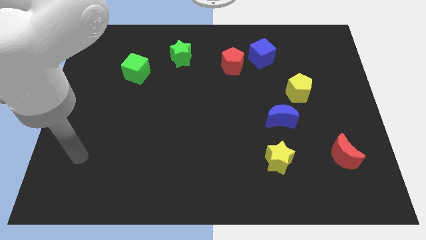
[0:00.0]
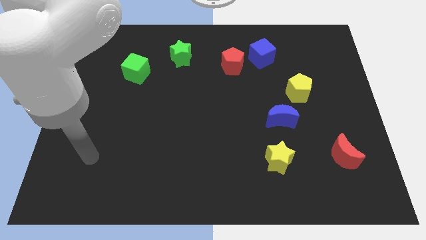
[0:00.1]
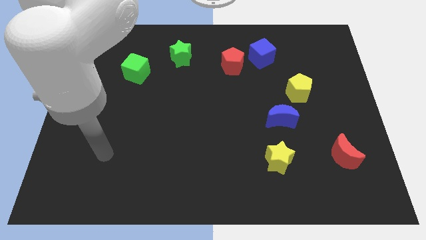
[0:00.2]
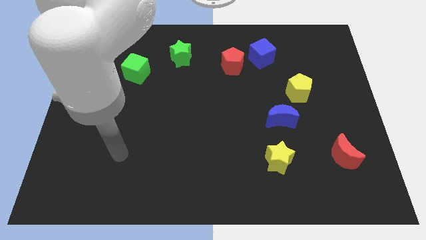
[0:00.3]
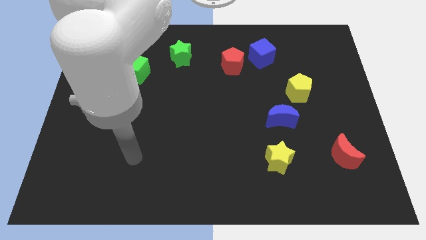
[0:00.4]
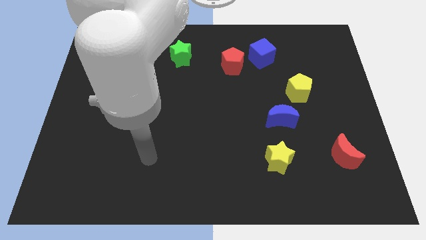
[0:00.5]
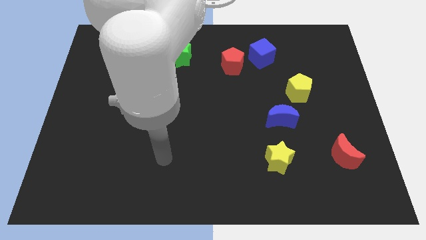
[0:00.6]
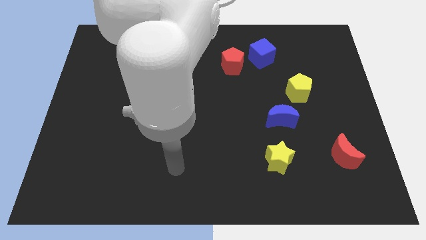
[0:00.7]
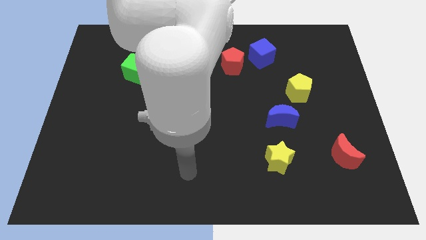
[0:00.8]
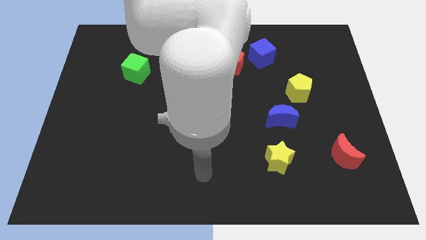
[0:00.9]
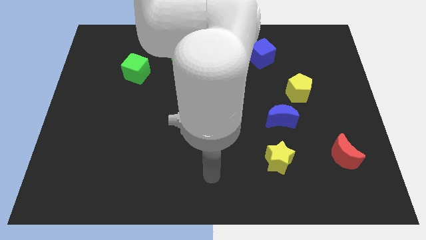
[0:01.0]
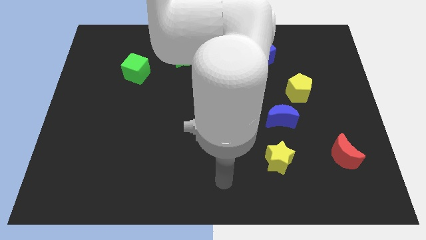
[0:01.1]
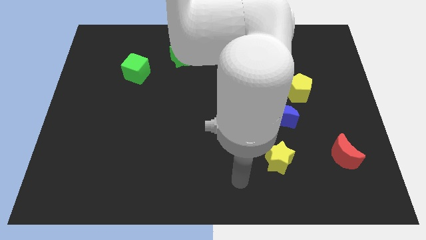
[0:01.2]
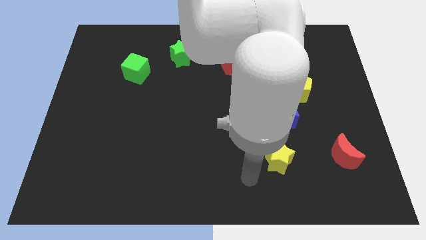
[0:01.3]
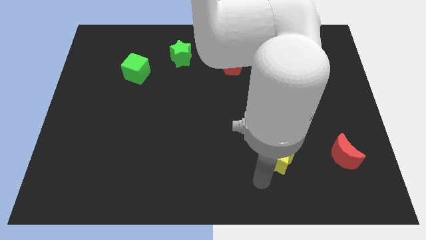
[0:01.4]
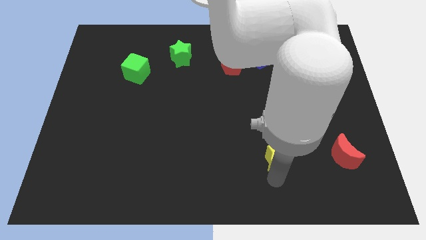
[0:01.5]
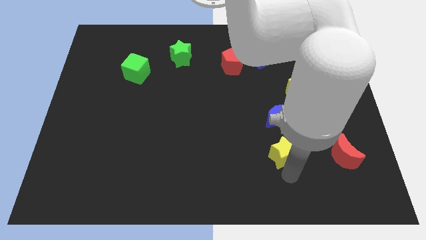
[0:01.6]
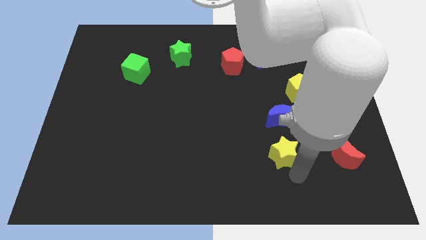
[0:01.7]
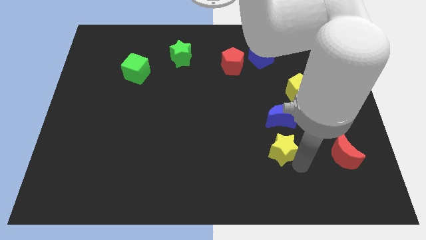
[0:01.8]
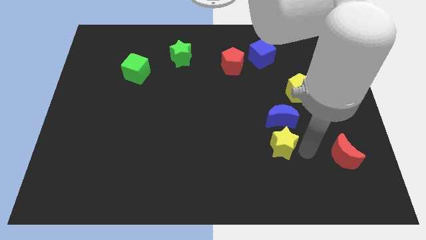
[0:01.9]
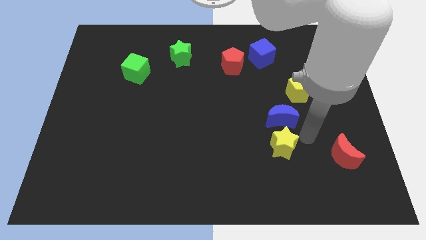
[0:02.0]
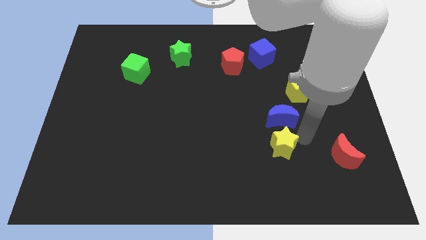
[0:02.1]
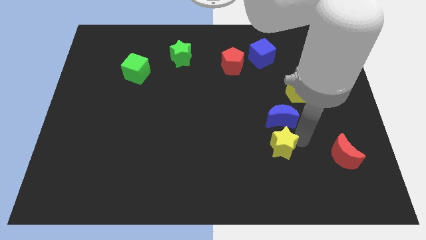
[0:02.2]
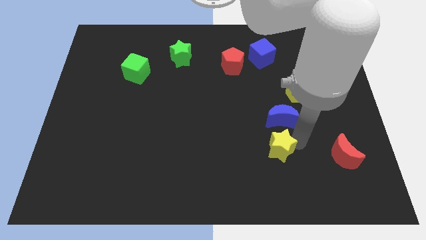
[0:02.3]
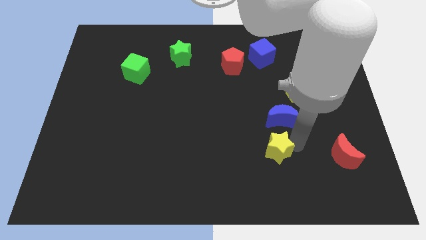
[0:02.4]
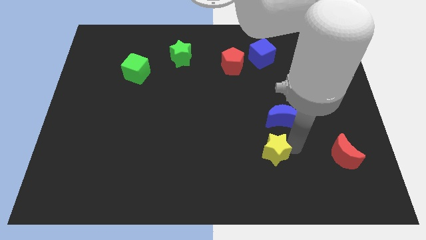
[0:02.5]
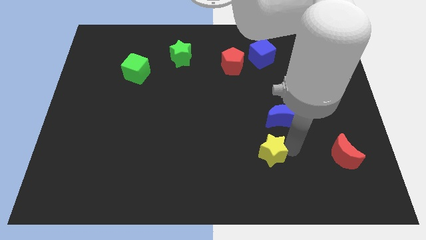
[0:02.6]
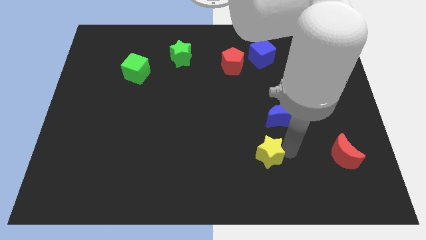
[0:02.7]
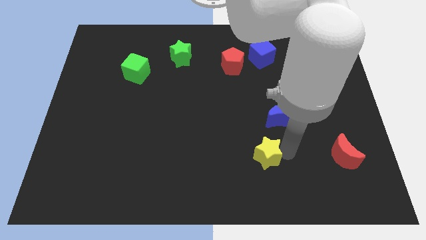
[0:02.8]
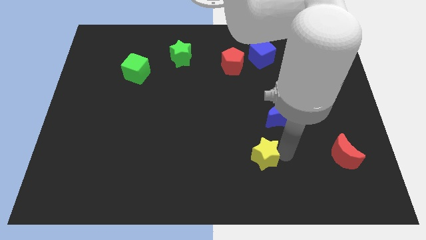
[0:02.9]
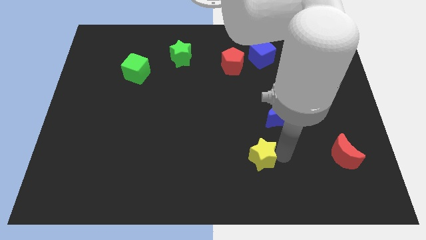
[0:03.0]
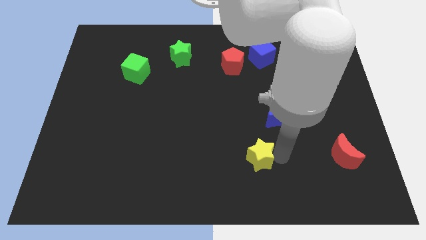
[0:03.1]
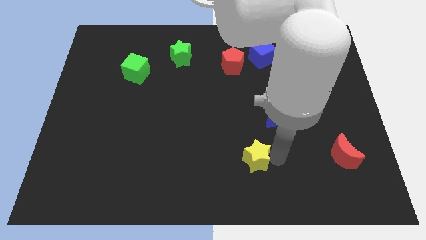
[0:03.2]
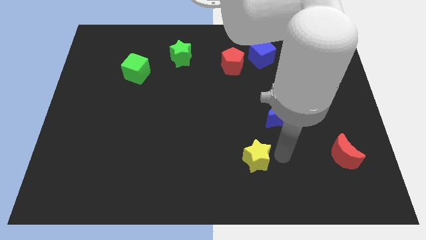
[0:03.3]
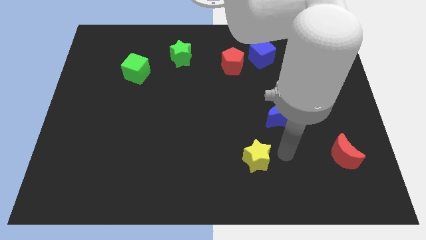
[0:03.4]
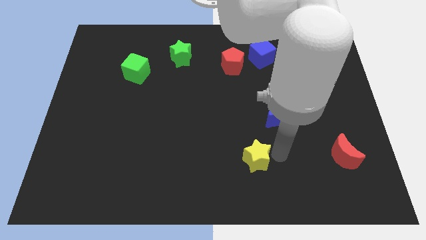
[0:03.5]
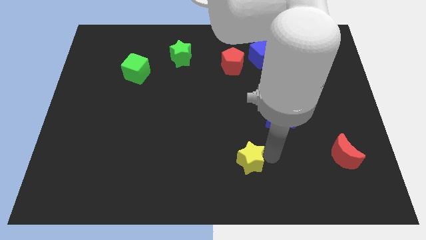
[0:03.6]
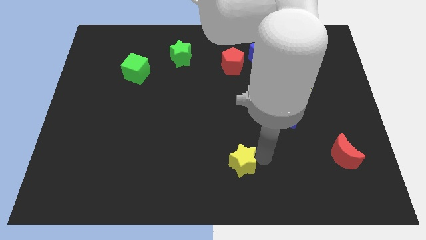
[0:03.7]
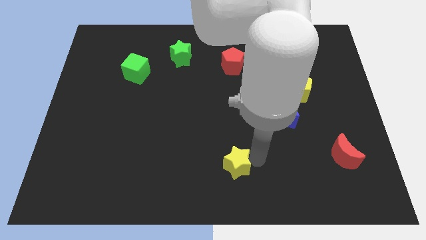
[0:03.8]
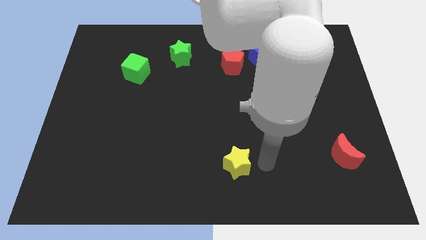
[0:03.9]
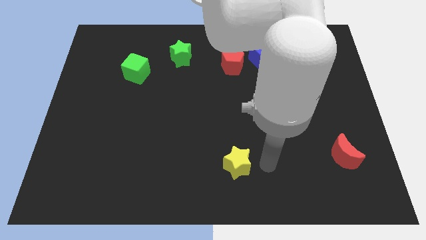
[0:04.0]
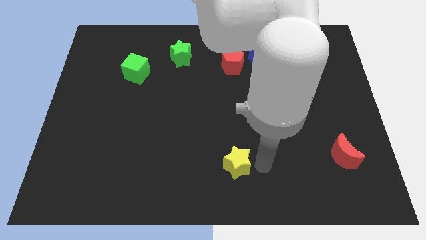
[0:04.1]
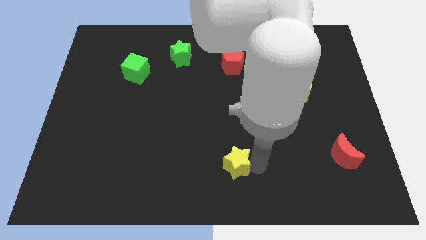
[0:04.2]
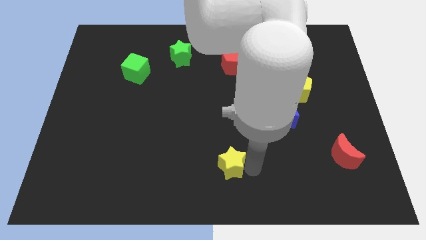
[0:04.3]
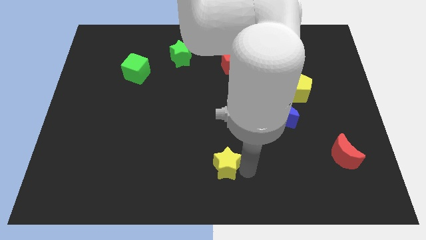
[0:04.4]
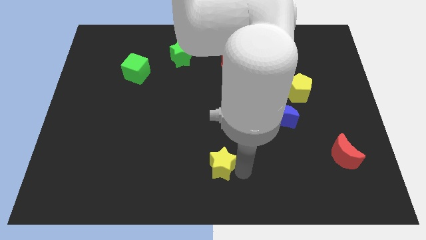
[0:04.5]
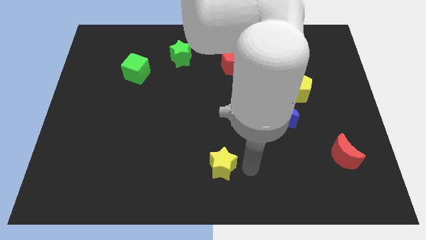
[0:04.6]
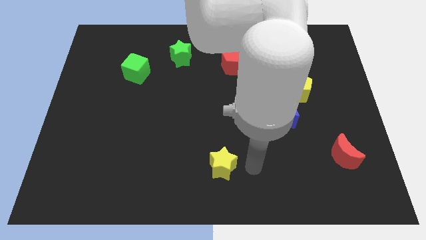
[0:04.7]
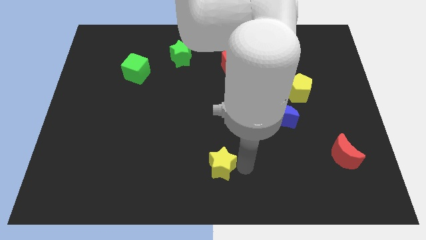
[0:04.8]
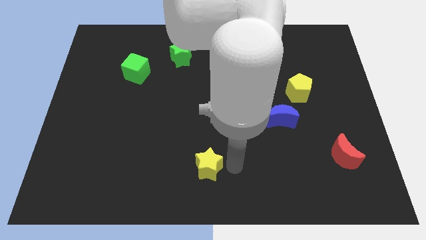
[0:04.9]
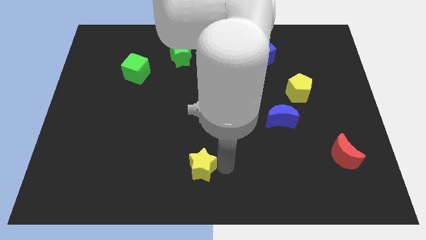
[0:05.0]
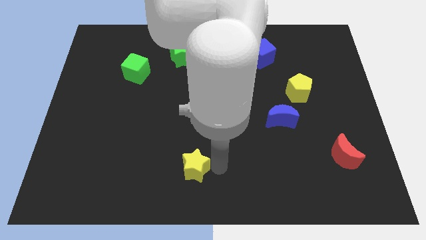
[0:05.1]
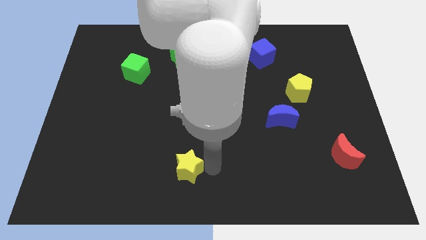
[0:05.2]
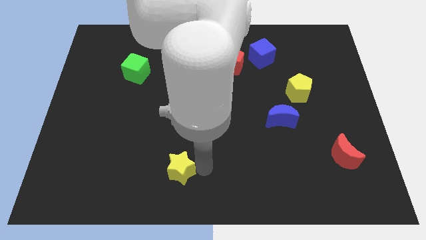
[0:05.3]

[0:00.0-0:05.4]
slide the yellow star to the left

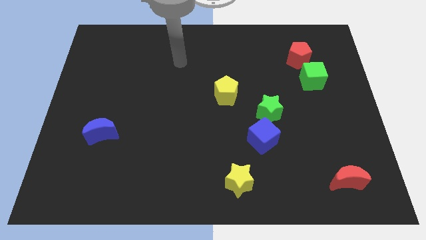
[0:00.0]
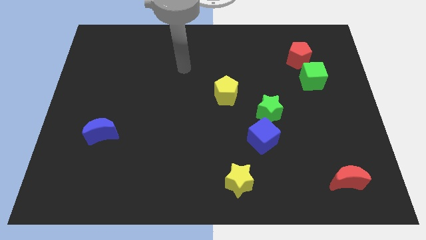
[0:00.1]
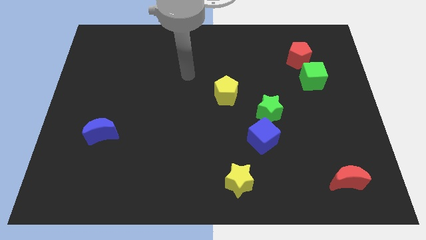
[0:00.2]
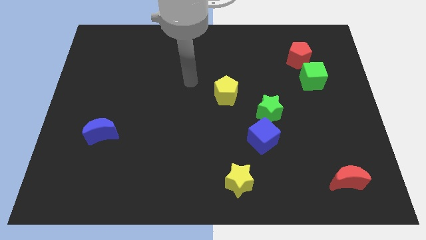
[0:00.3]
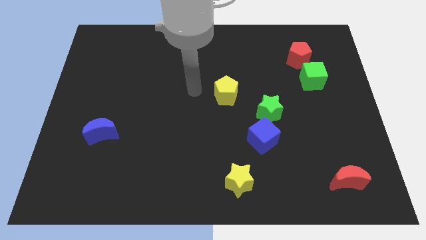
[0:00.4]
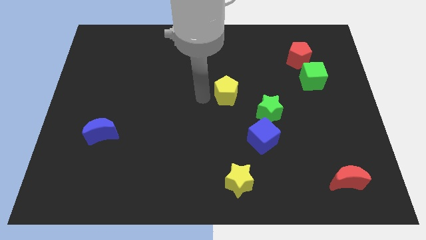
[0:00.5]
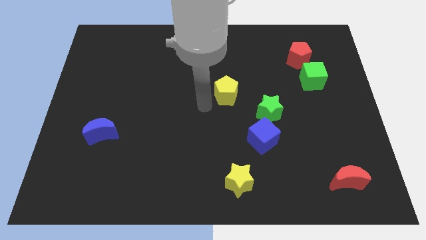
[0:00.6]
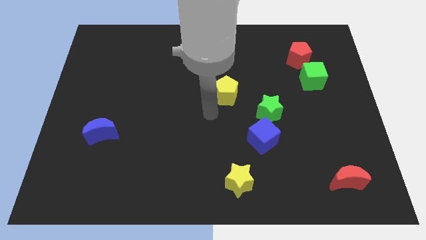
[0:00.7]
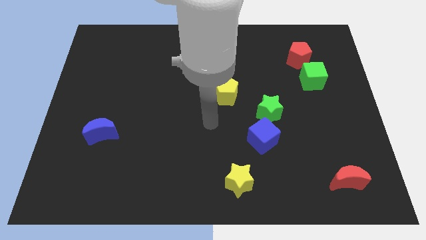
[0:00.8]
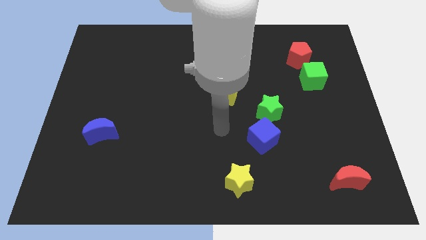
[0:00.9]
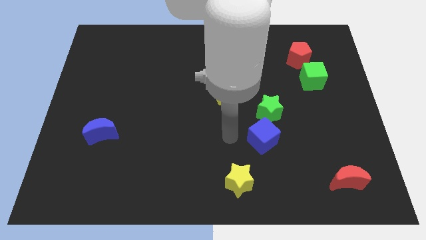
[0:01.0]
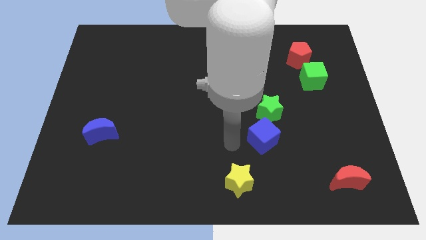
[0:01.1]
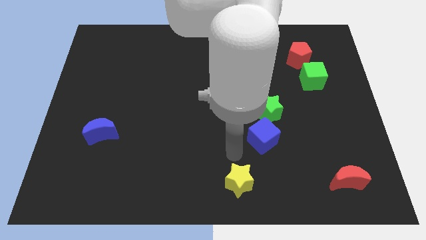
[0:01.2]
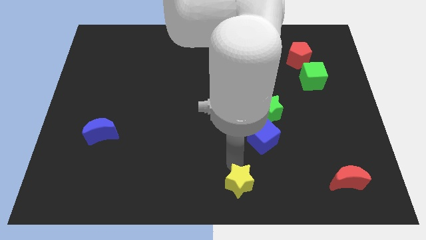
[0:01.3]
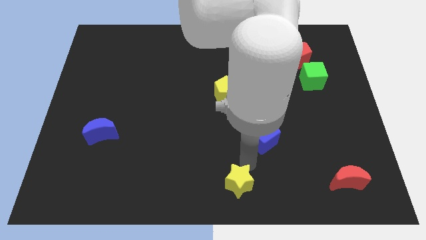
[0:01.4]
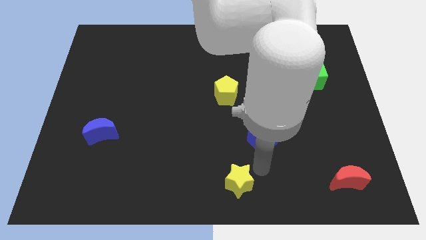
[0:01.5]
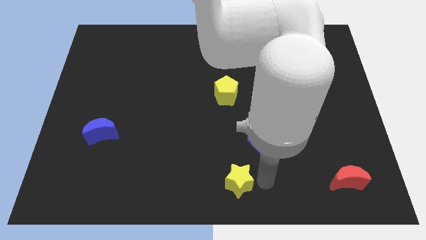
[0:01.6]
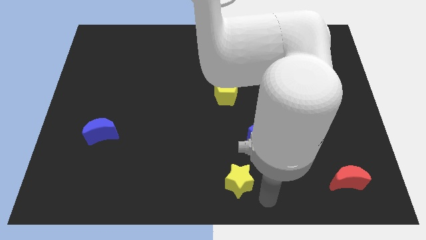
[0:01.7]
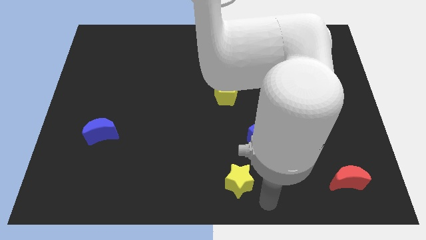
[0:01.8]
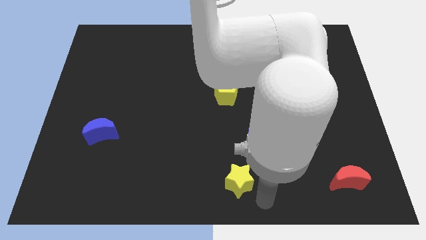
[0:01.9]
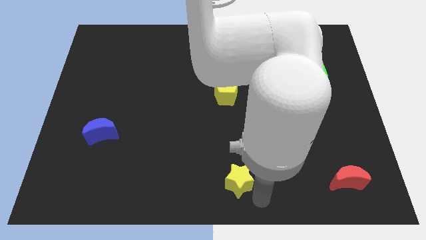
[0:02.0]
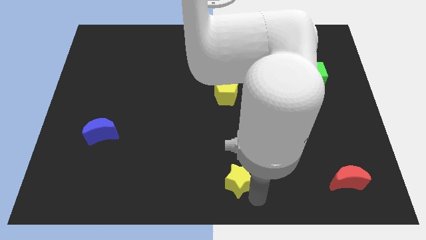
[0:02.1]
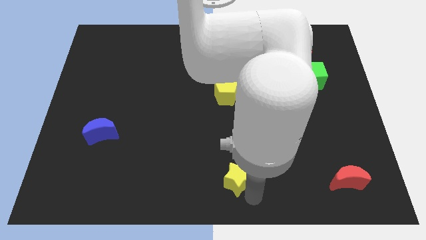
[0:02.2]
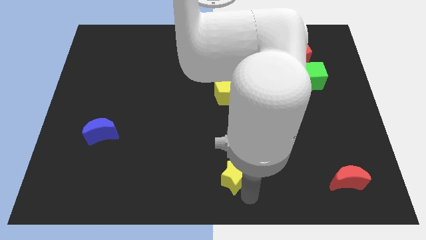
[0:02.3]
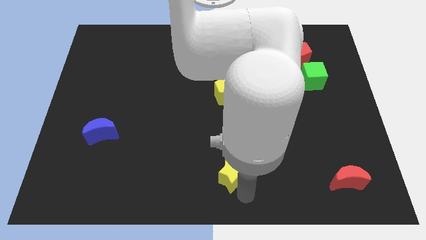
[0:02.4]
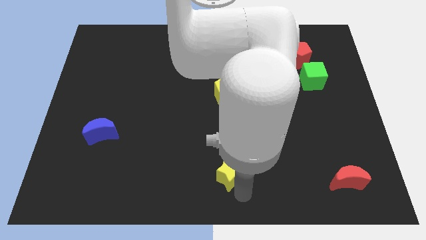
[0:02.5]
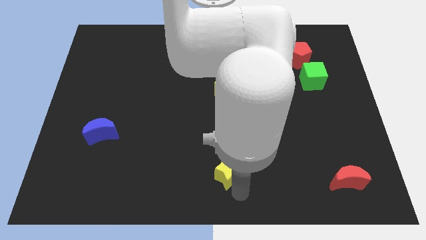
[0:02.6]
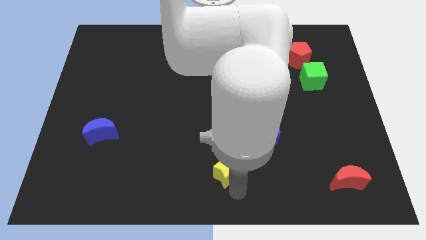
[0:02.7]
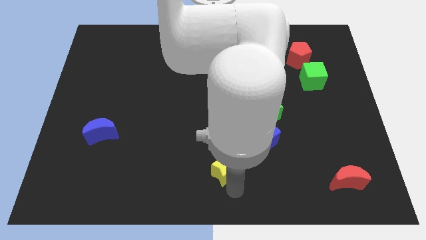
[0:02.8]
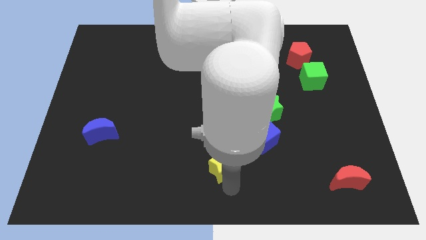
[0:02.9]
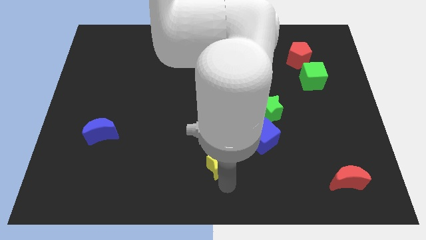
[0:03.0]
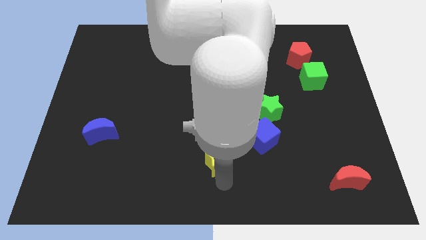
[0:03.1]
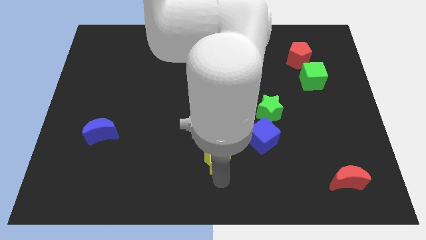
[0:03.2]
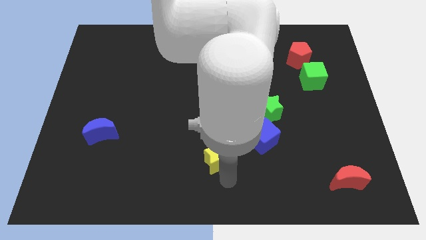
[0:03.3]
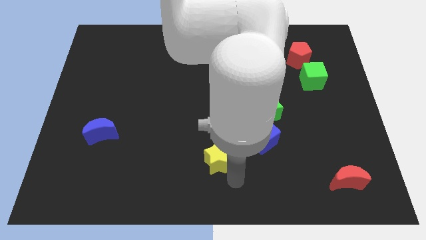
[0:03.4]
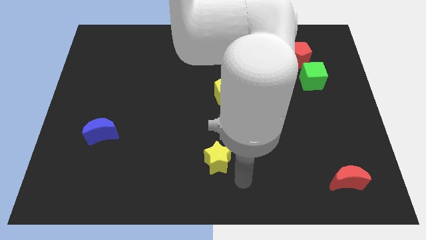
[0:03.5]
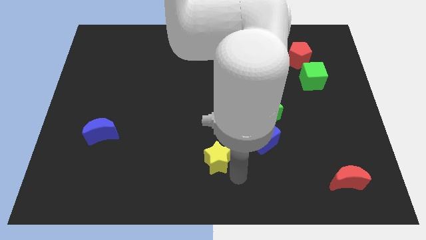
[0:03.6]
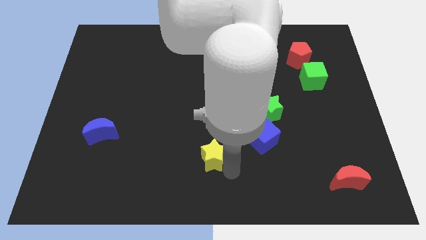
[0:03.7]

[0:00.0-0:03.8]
slide the yellow star slightly up and then to the left
